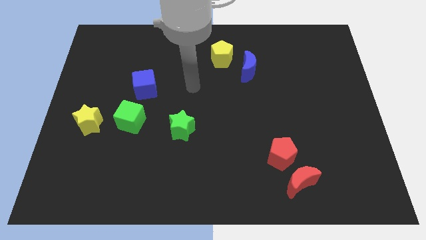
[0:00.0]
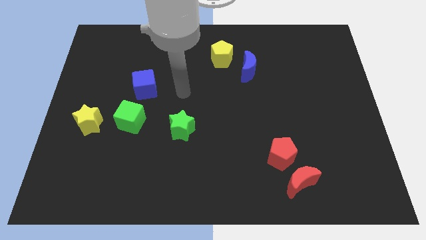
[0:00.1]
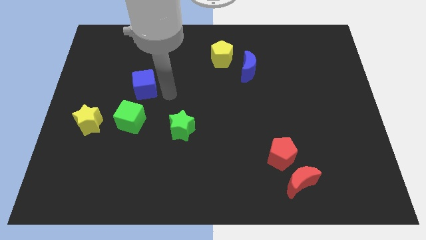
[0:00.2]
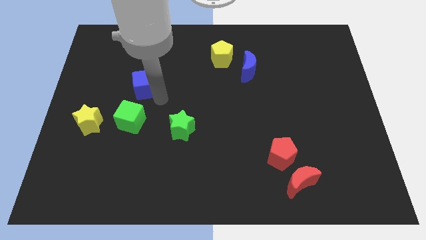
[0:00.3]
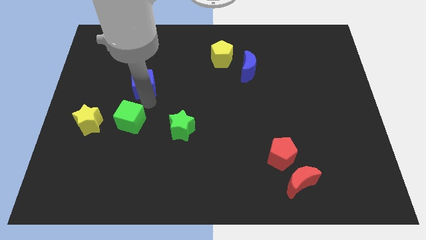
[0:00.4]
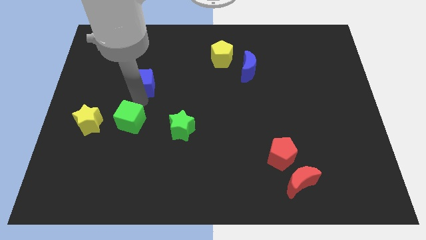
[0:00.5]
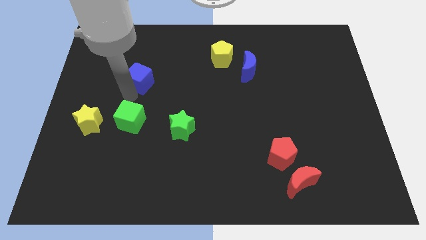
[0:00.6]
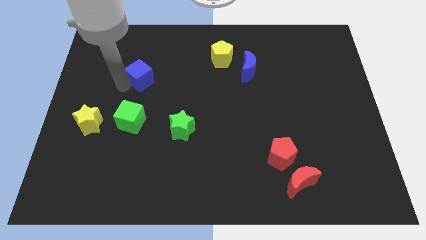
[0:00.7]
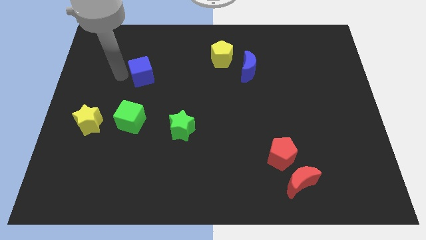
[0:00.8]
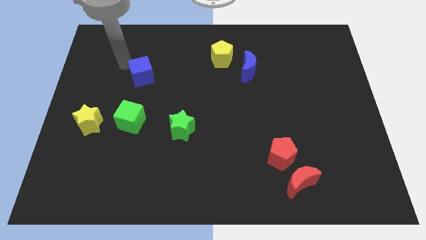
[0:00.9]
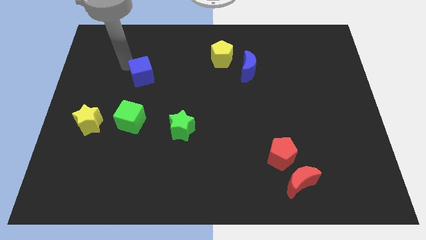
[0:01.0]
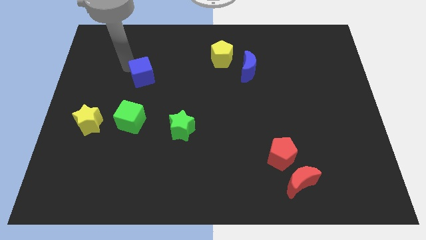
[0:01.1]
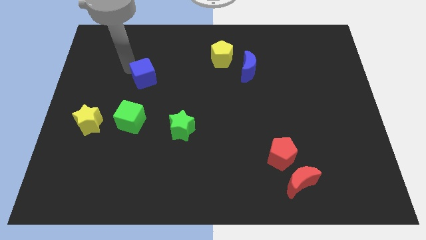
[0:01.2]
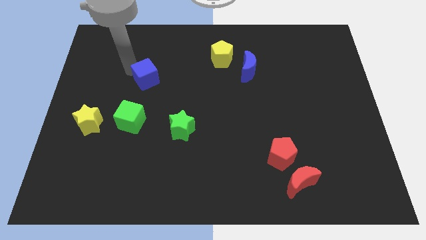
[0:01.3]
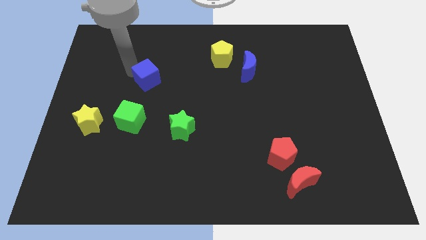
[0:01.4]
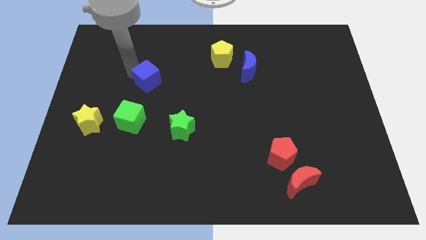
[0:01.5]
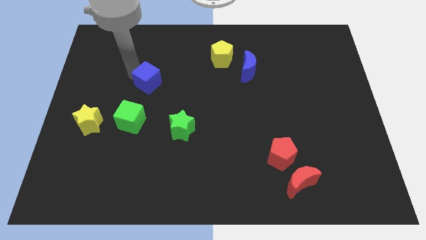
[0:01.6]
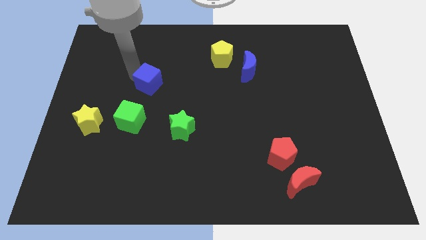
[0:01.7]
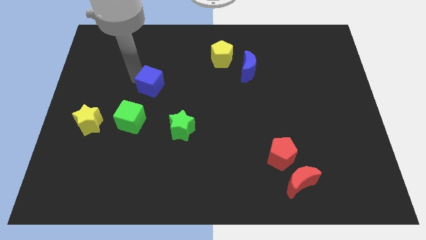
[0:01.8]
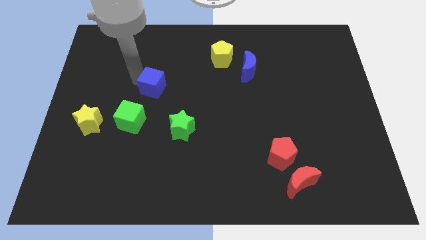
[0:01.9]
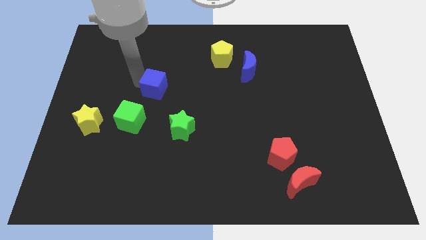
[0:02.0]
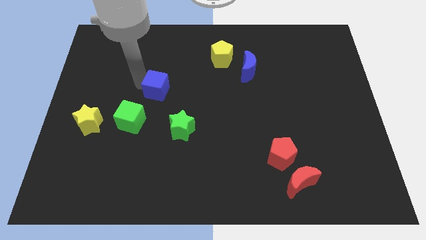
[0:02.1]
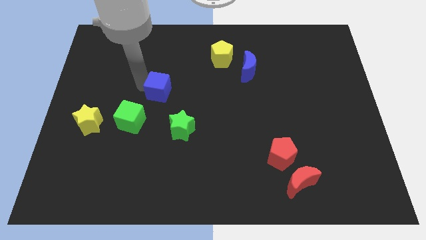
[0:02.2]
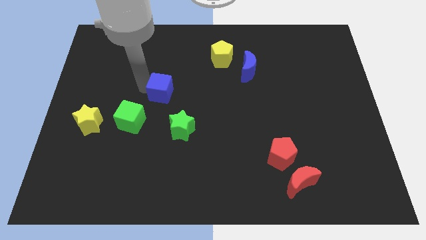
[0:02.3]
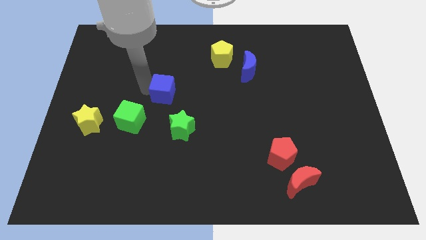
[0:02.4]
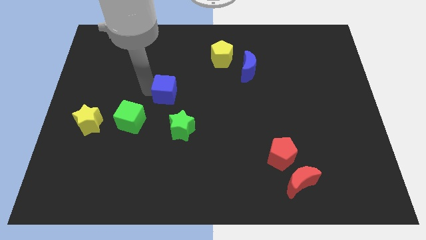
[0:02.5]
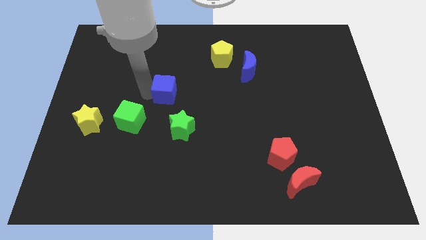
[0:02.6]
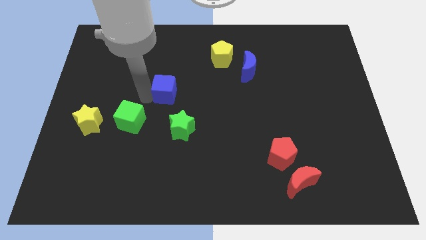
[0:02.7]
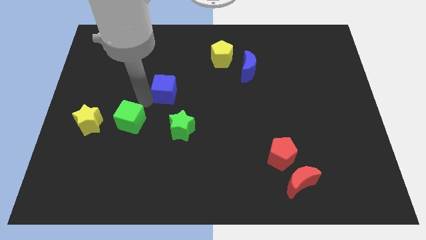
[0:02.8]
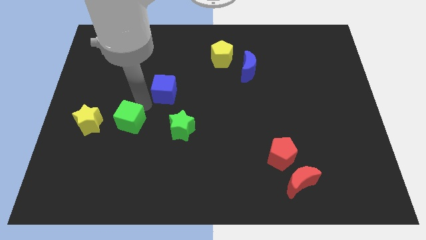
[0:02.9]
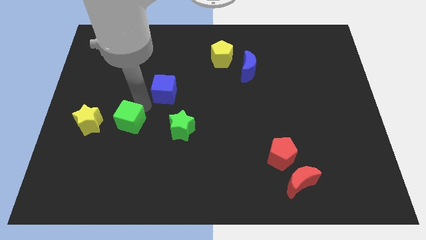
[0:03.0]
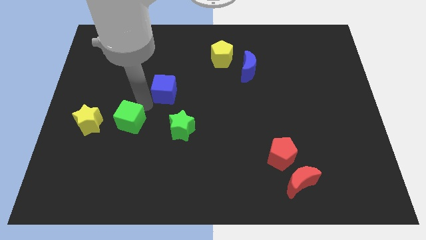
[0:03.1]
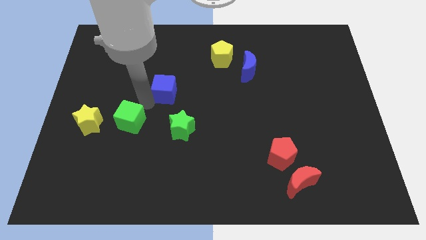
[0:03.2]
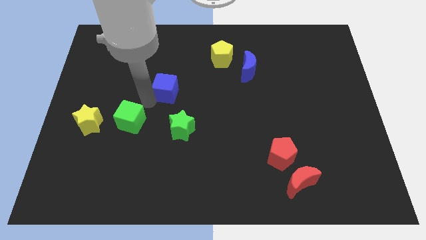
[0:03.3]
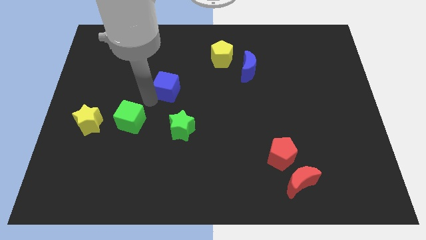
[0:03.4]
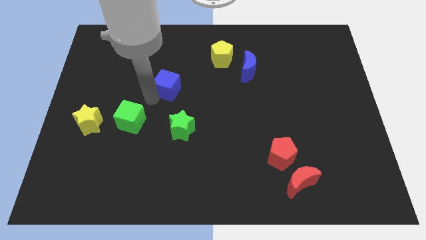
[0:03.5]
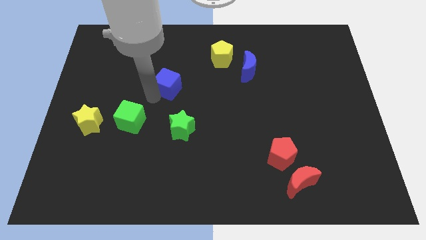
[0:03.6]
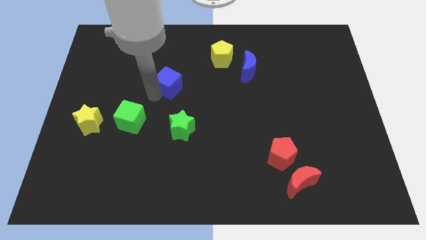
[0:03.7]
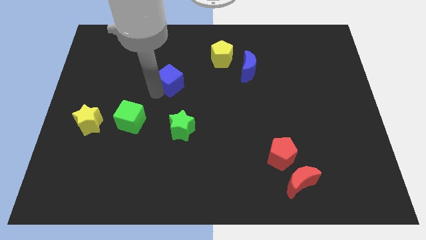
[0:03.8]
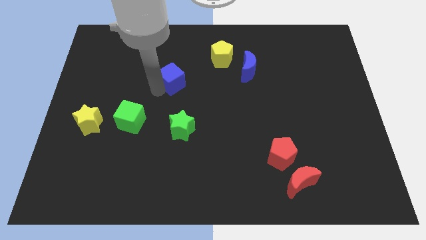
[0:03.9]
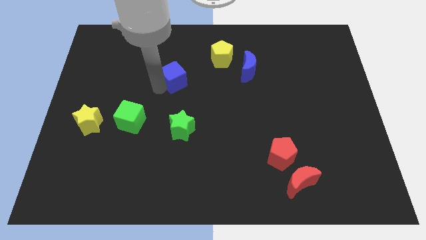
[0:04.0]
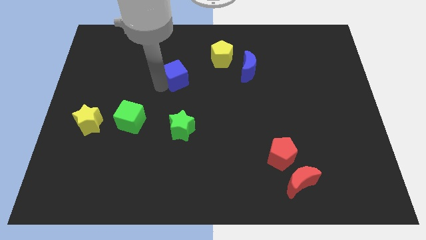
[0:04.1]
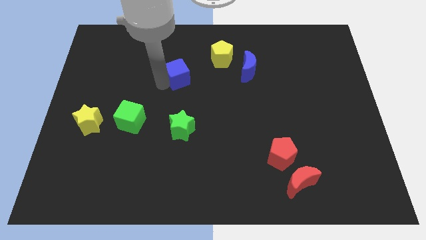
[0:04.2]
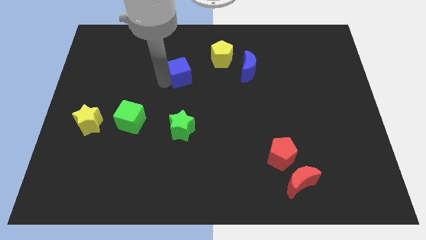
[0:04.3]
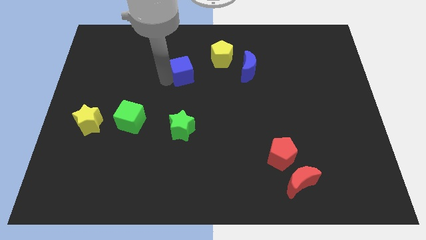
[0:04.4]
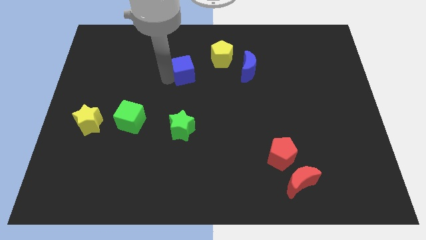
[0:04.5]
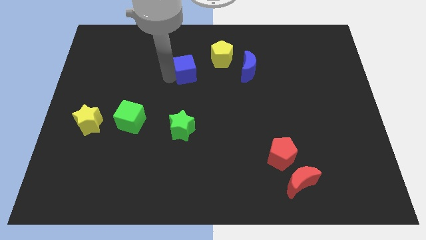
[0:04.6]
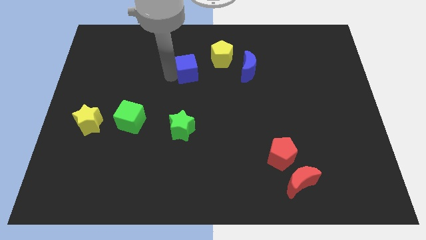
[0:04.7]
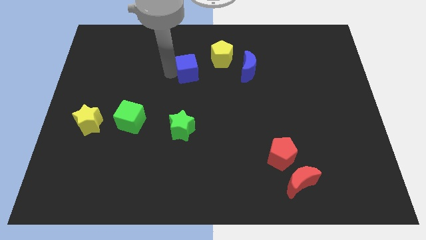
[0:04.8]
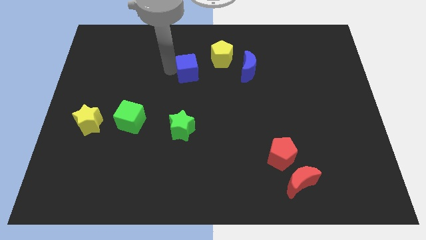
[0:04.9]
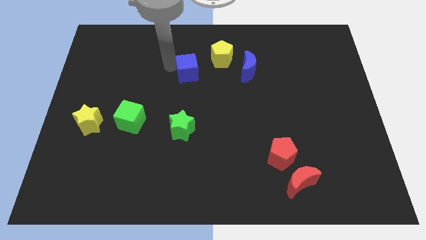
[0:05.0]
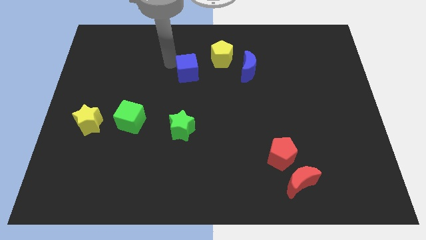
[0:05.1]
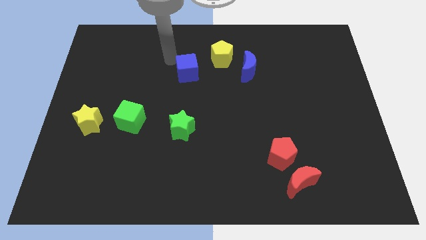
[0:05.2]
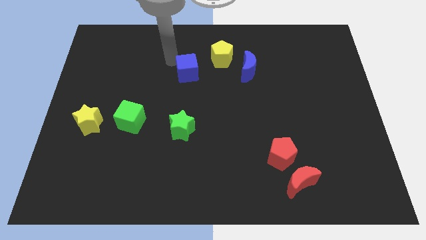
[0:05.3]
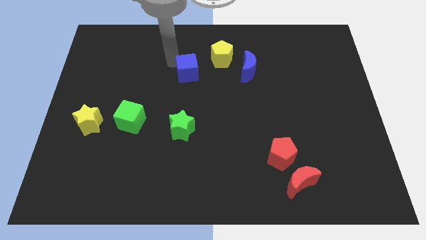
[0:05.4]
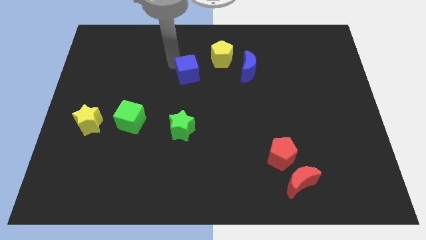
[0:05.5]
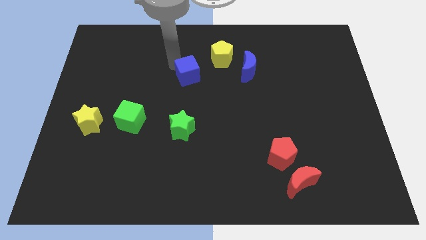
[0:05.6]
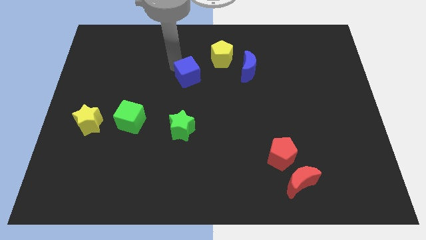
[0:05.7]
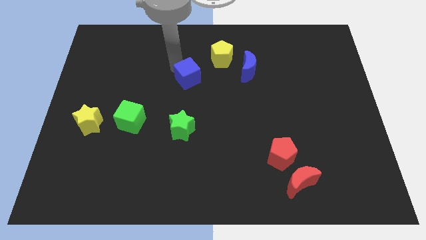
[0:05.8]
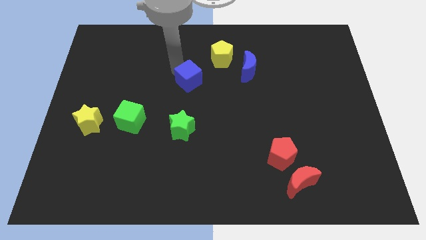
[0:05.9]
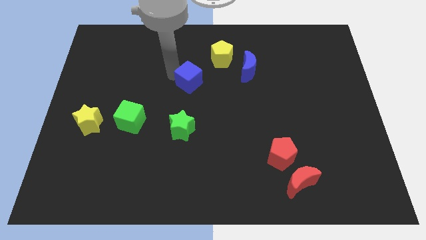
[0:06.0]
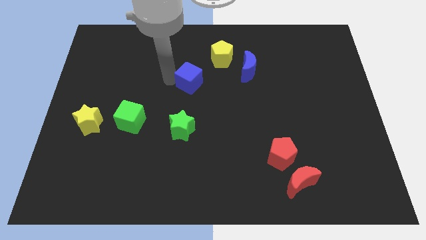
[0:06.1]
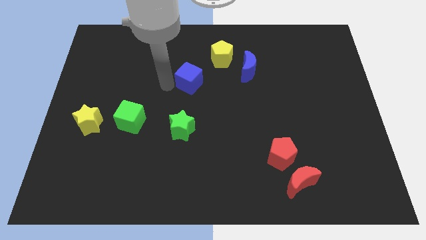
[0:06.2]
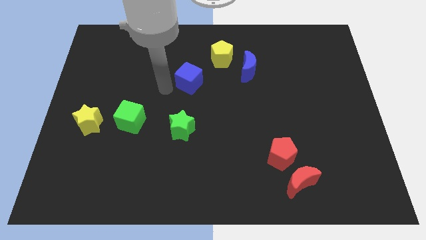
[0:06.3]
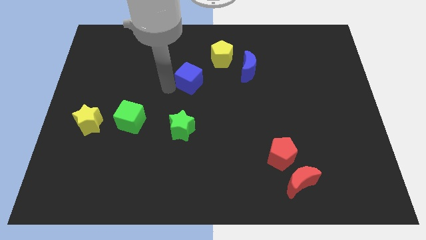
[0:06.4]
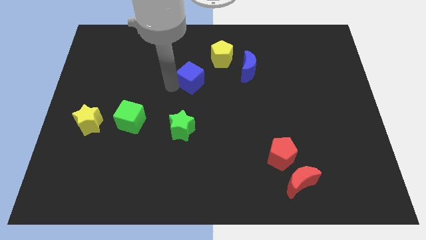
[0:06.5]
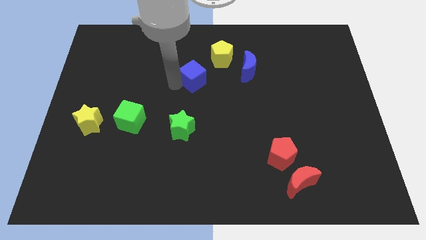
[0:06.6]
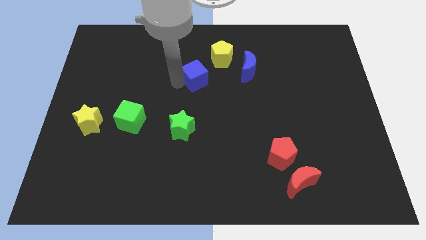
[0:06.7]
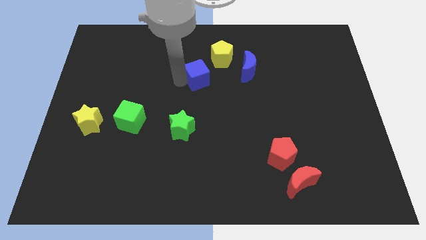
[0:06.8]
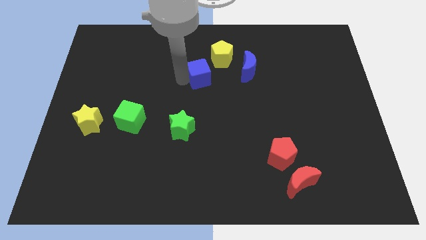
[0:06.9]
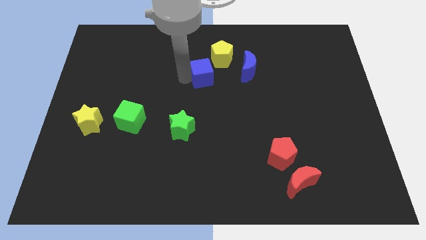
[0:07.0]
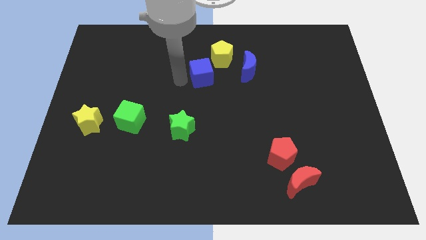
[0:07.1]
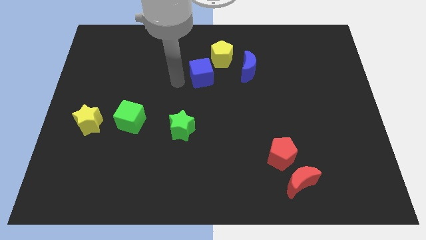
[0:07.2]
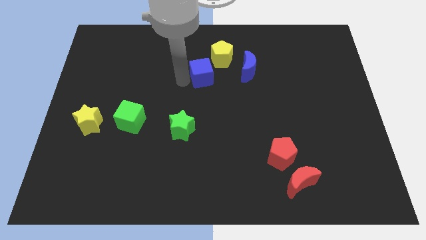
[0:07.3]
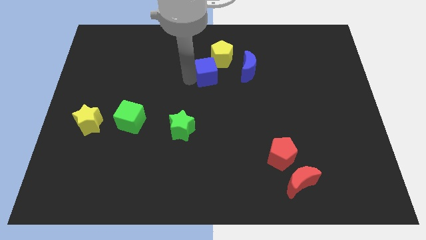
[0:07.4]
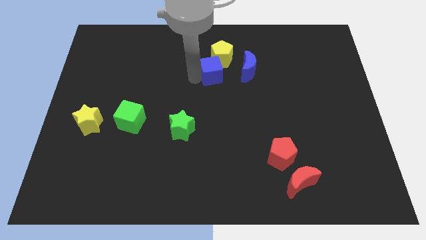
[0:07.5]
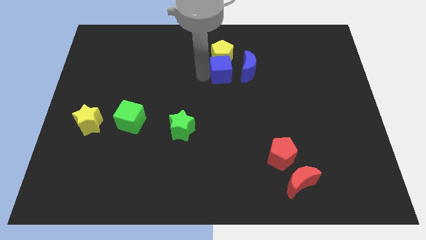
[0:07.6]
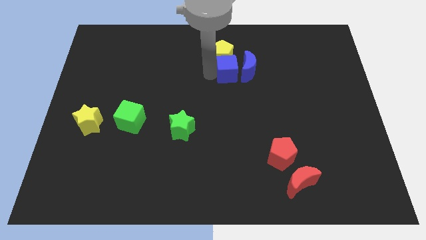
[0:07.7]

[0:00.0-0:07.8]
push the blue cube to the blue moon
